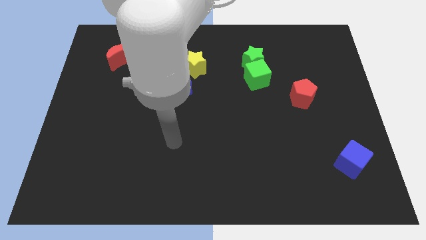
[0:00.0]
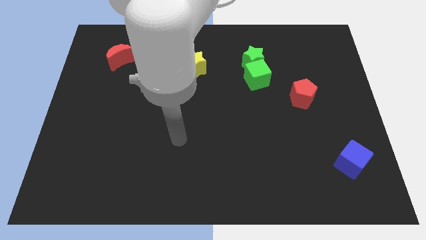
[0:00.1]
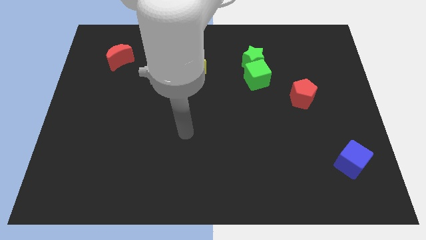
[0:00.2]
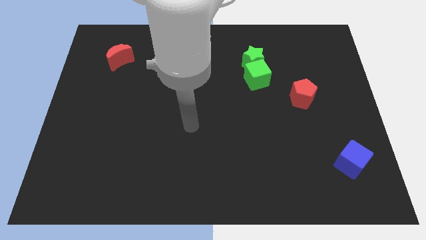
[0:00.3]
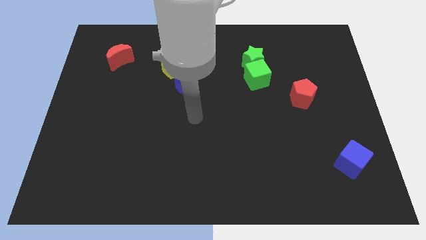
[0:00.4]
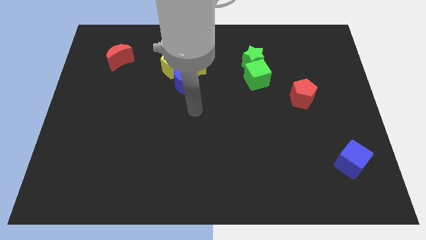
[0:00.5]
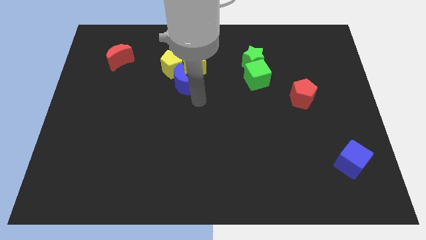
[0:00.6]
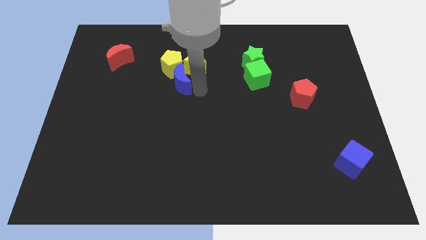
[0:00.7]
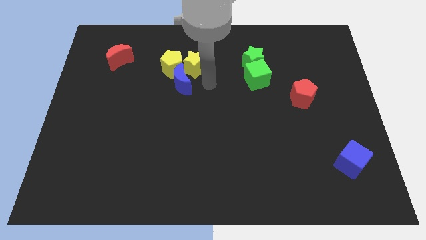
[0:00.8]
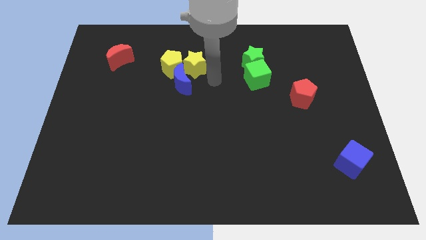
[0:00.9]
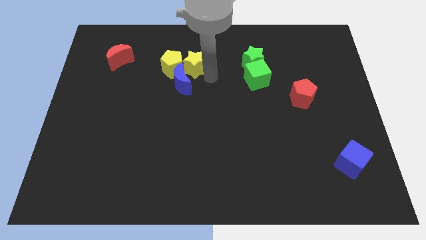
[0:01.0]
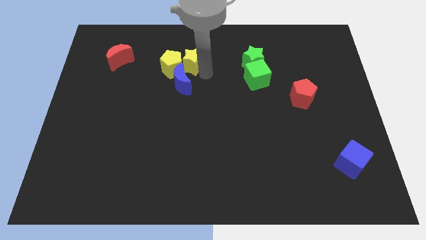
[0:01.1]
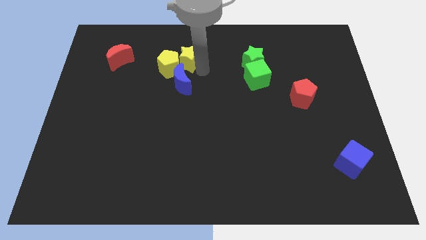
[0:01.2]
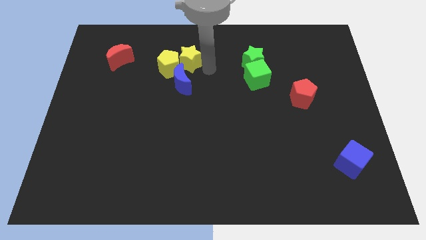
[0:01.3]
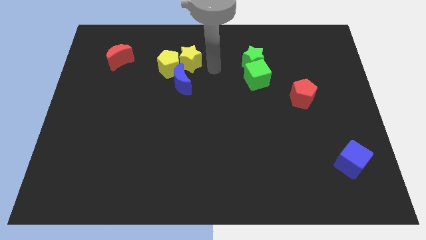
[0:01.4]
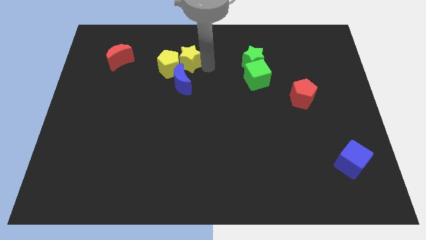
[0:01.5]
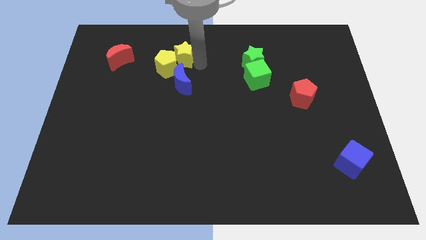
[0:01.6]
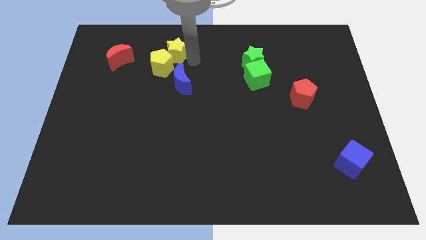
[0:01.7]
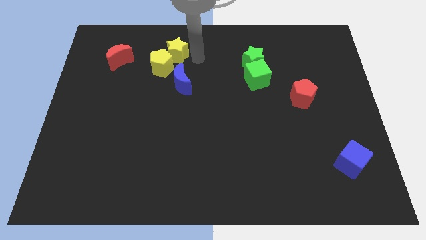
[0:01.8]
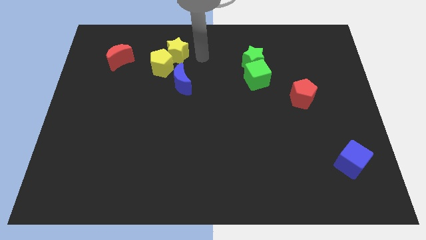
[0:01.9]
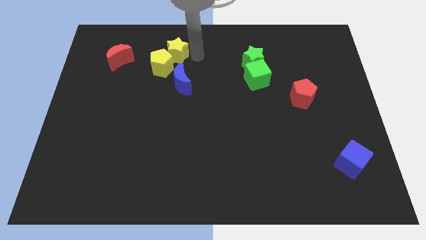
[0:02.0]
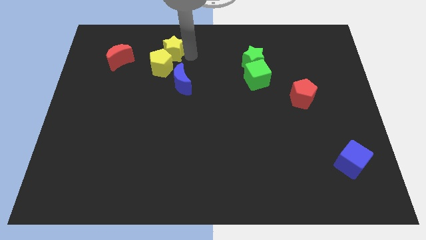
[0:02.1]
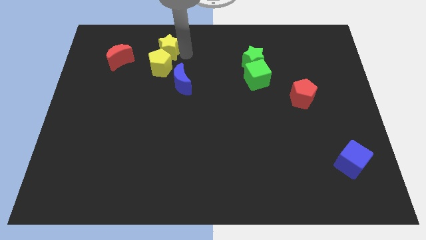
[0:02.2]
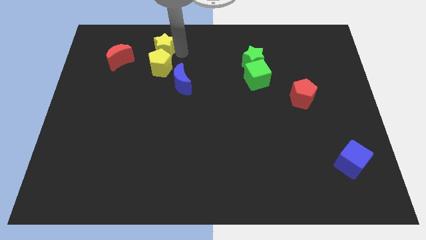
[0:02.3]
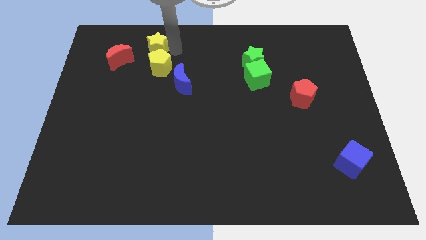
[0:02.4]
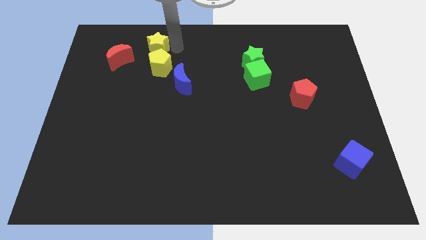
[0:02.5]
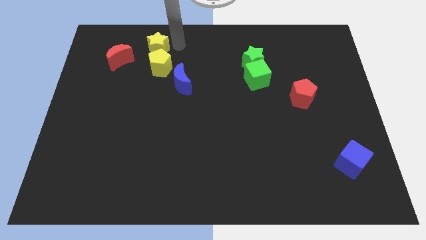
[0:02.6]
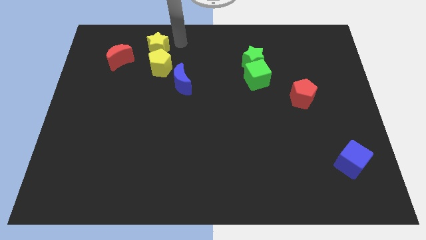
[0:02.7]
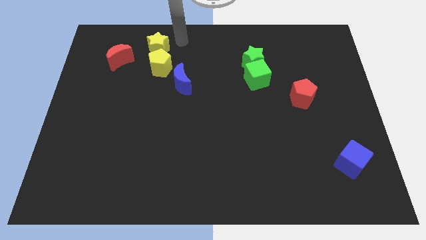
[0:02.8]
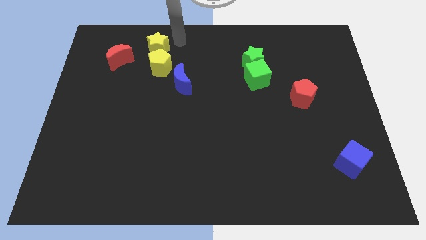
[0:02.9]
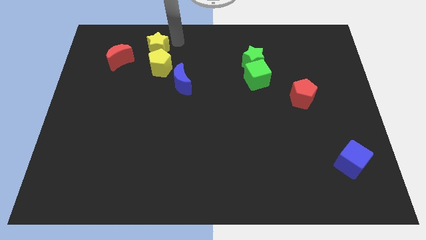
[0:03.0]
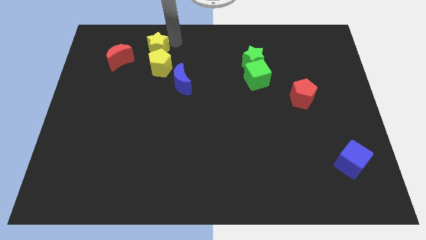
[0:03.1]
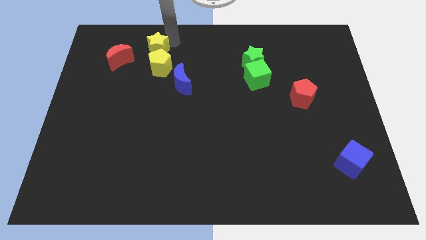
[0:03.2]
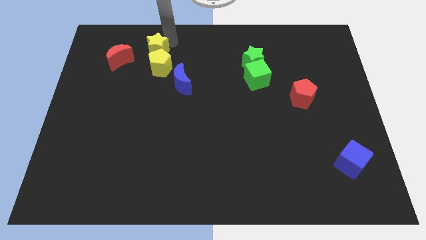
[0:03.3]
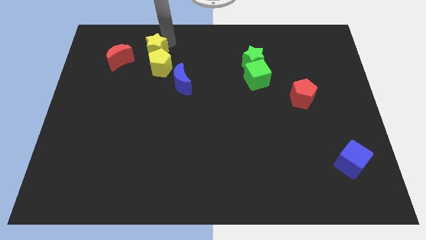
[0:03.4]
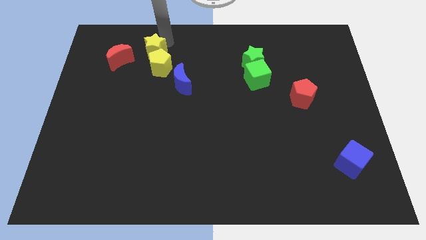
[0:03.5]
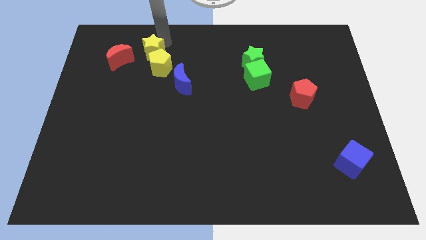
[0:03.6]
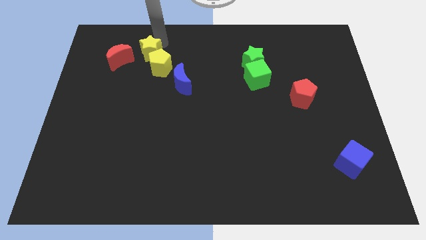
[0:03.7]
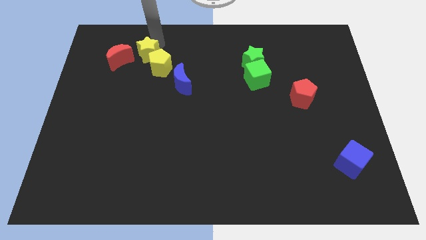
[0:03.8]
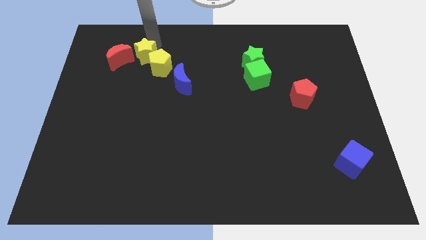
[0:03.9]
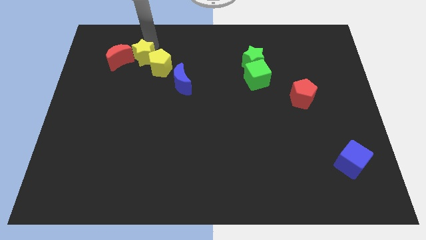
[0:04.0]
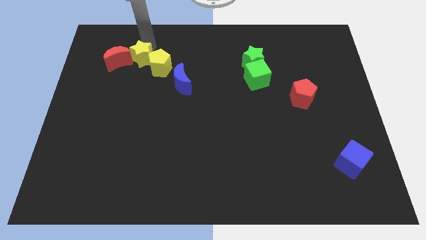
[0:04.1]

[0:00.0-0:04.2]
slide the yellow star towards the red moon

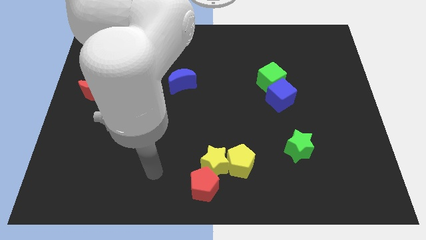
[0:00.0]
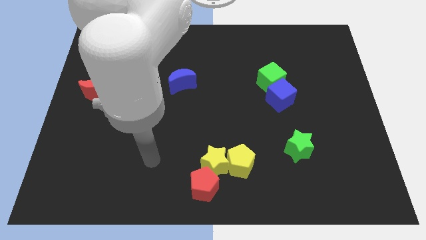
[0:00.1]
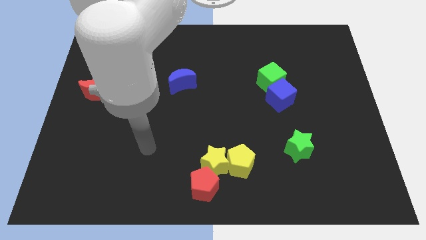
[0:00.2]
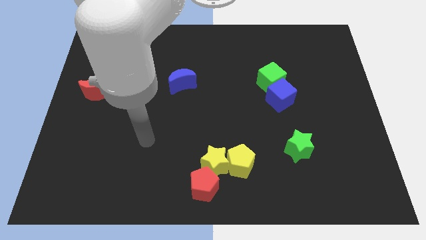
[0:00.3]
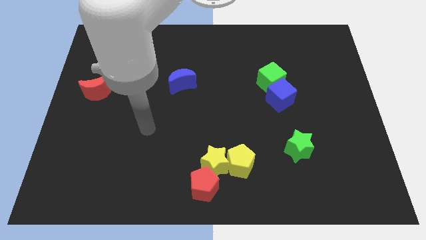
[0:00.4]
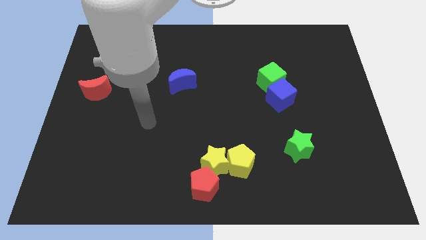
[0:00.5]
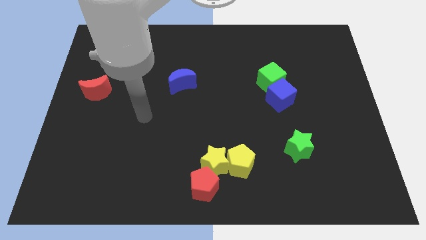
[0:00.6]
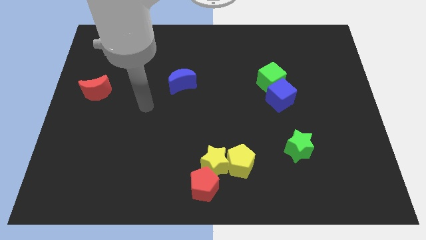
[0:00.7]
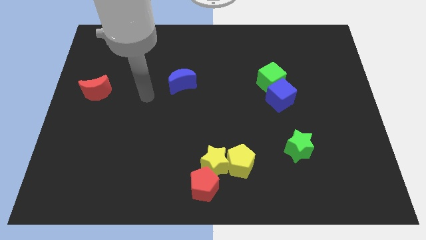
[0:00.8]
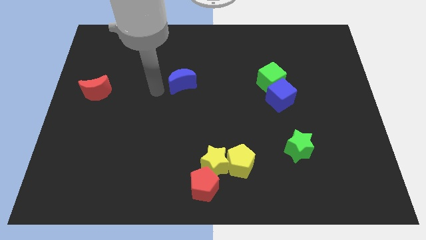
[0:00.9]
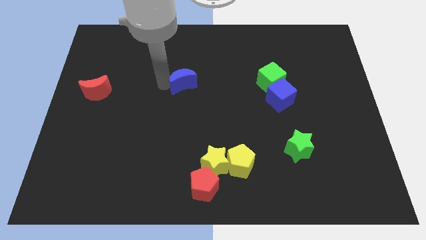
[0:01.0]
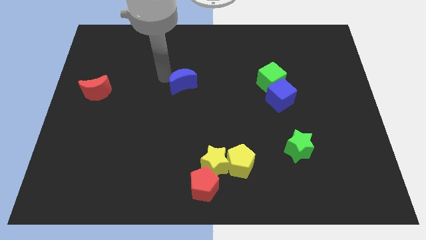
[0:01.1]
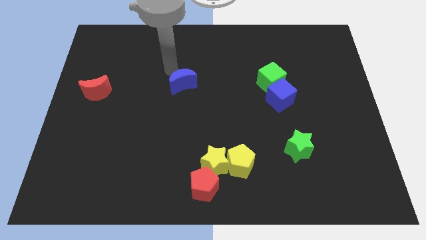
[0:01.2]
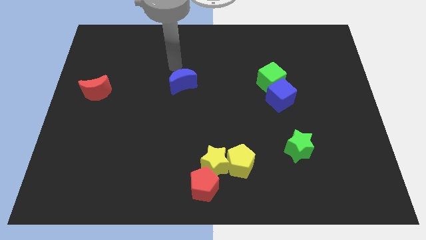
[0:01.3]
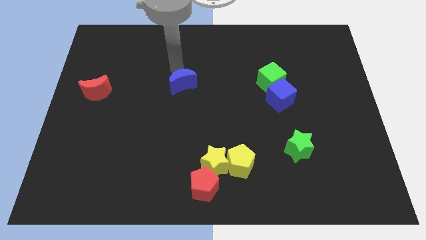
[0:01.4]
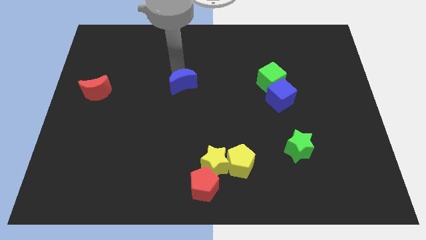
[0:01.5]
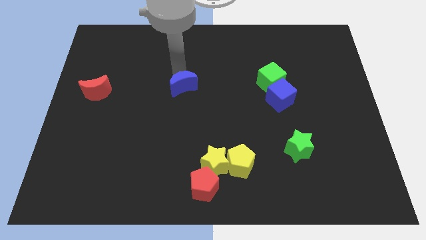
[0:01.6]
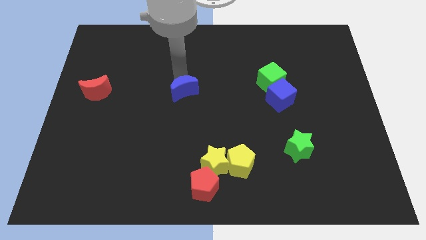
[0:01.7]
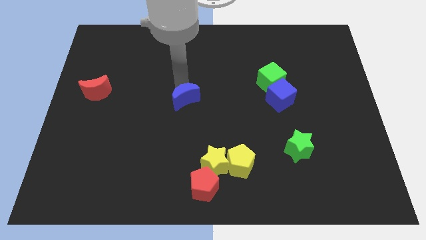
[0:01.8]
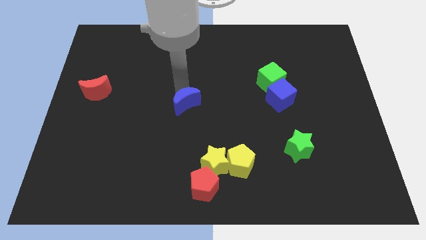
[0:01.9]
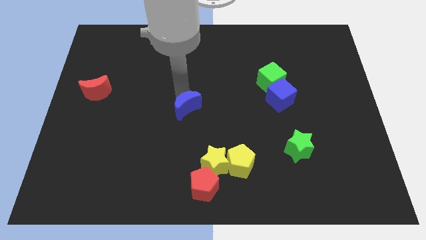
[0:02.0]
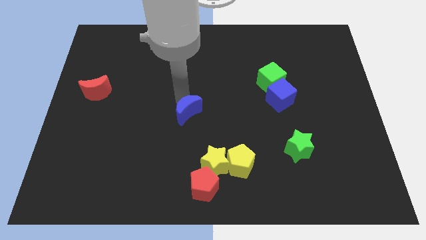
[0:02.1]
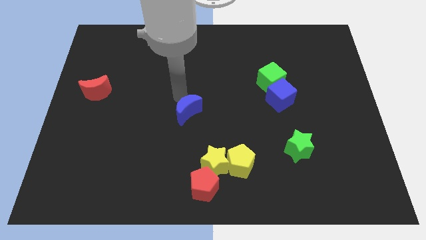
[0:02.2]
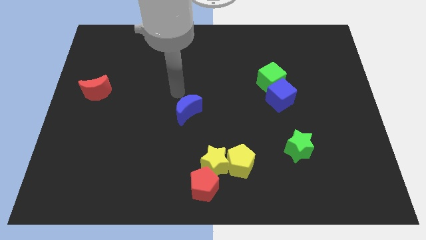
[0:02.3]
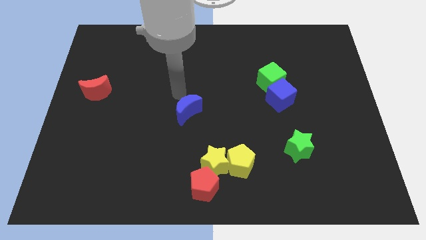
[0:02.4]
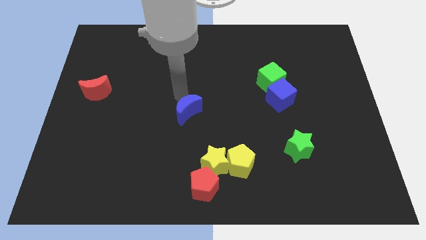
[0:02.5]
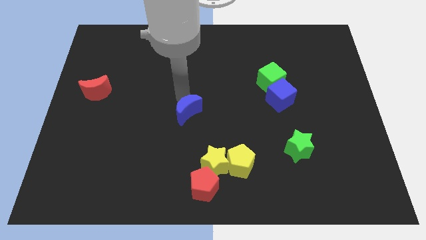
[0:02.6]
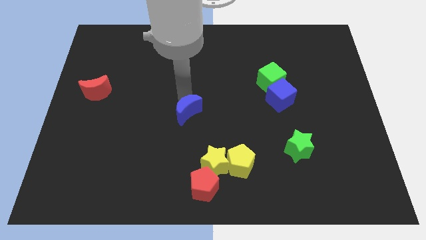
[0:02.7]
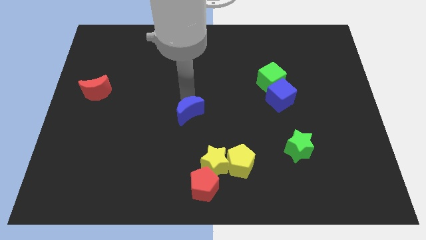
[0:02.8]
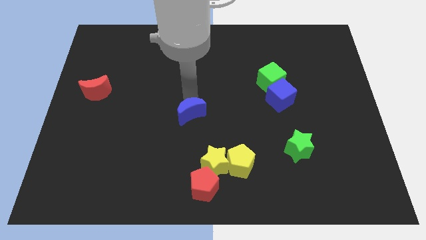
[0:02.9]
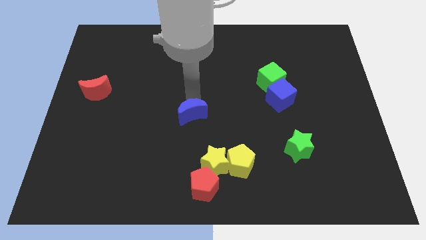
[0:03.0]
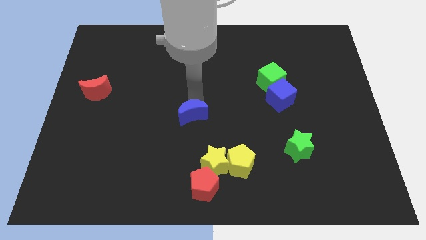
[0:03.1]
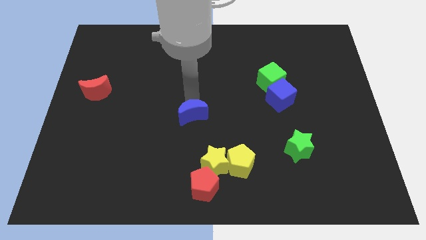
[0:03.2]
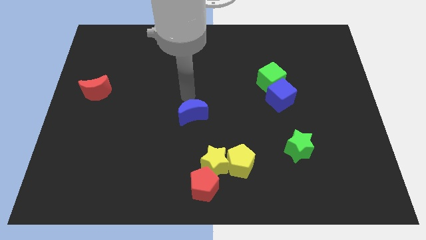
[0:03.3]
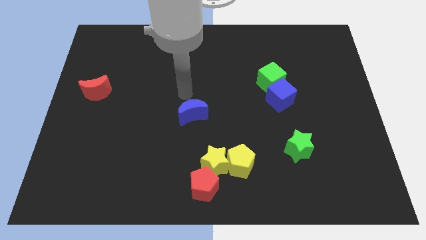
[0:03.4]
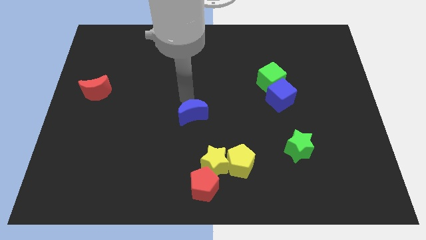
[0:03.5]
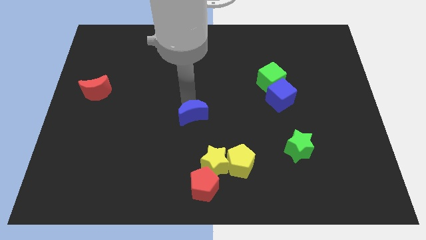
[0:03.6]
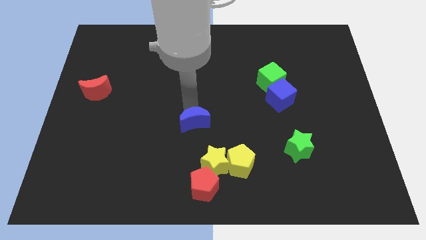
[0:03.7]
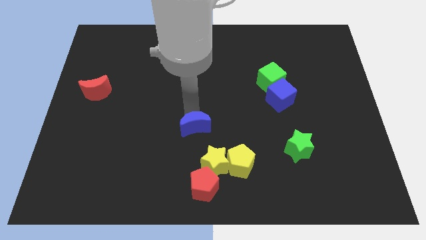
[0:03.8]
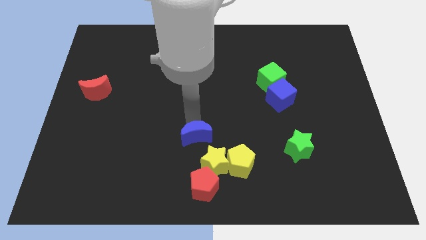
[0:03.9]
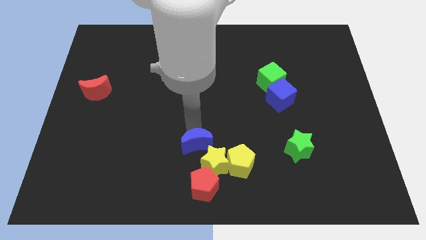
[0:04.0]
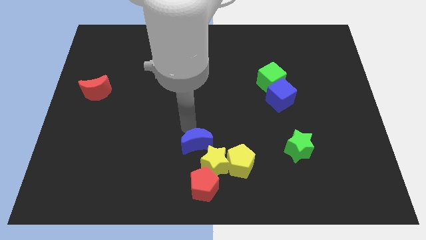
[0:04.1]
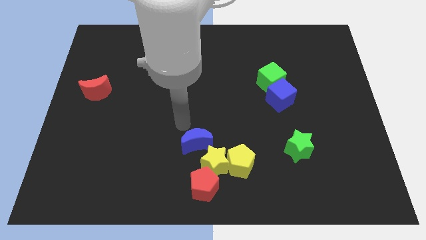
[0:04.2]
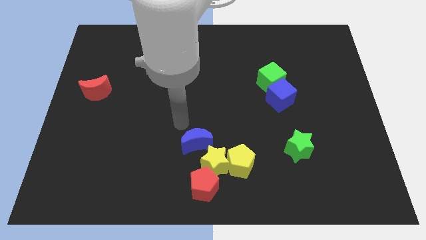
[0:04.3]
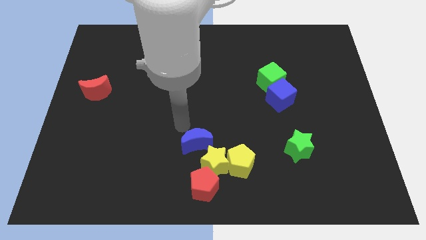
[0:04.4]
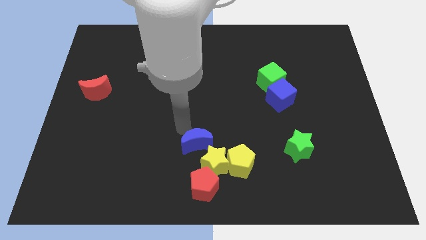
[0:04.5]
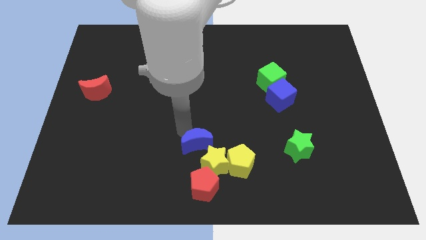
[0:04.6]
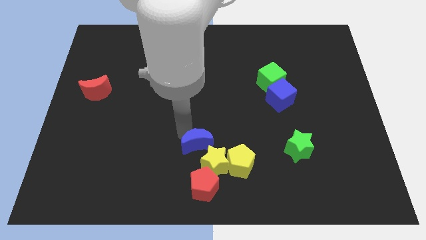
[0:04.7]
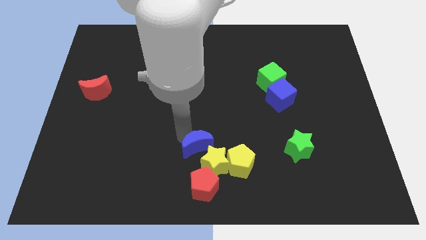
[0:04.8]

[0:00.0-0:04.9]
slide the blue moon close to the yellow star
